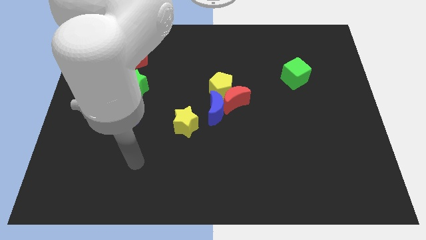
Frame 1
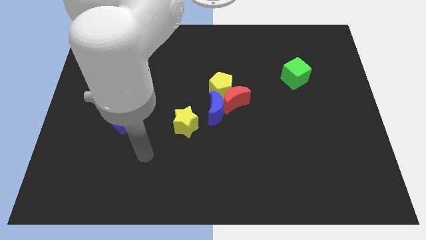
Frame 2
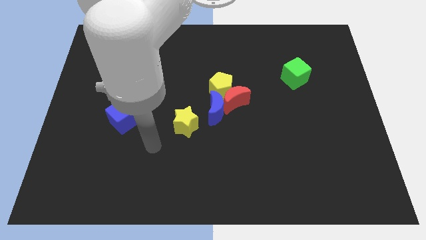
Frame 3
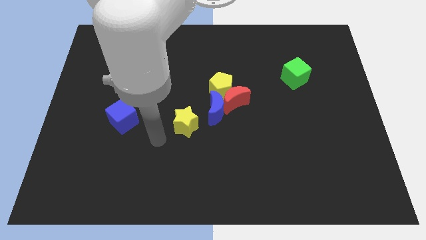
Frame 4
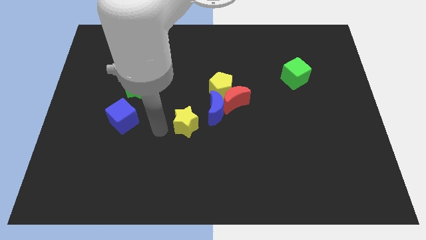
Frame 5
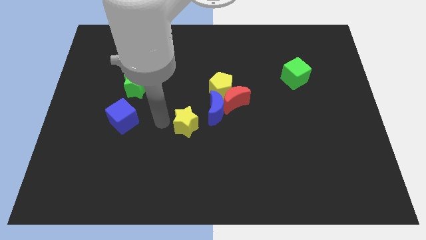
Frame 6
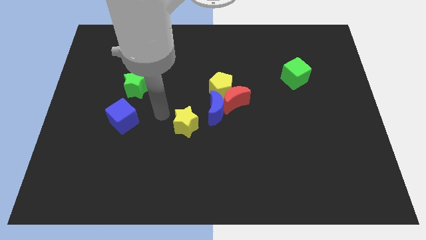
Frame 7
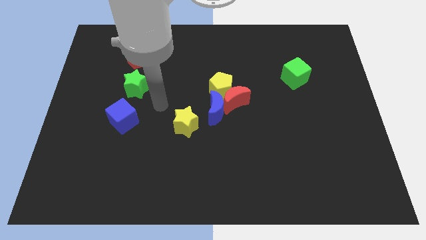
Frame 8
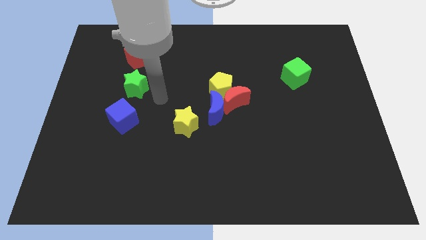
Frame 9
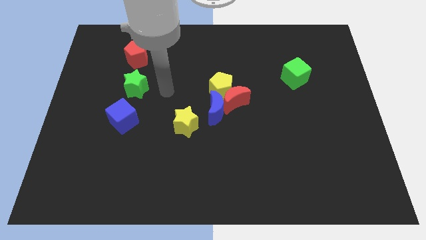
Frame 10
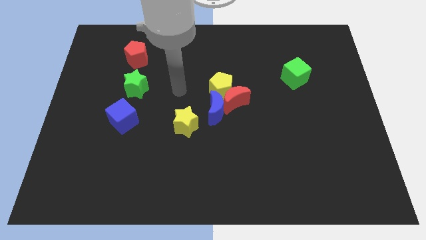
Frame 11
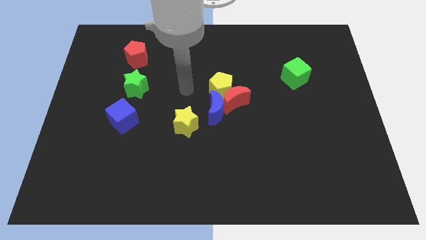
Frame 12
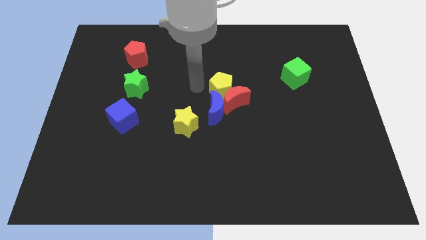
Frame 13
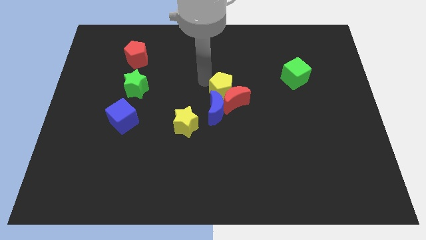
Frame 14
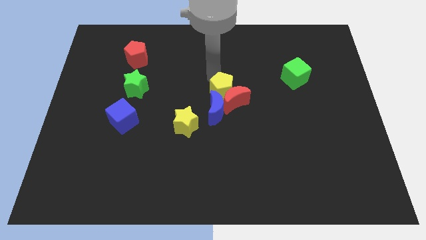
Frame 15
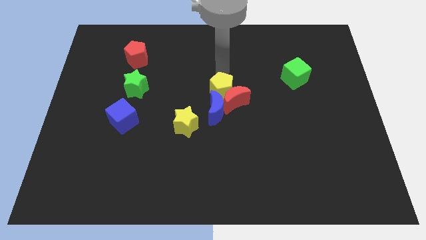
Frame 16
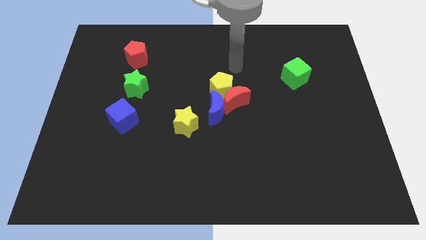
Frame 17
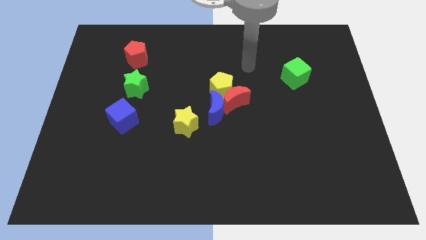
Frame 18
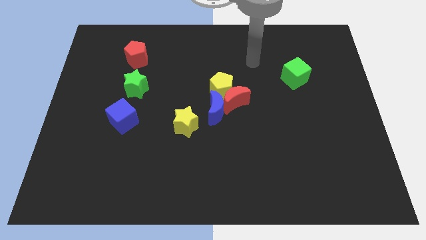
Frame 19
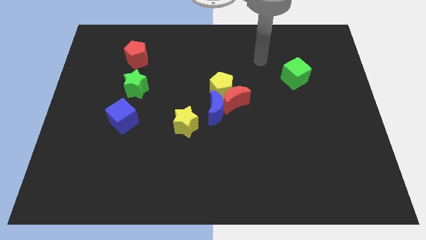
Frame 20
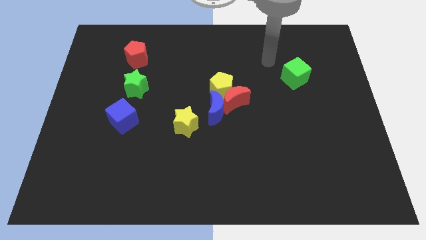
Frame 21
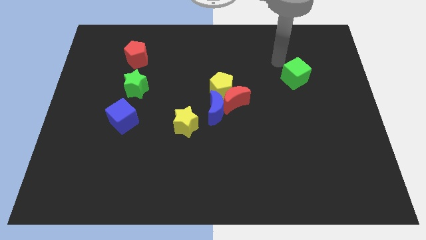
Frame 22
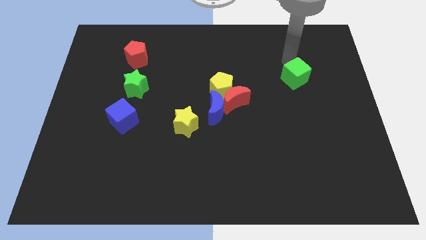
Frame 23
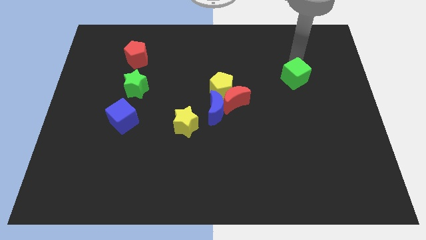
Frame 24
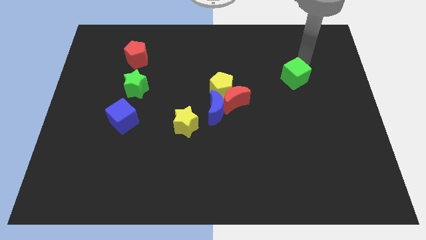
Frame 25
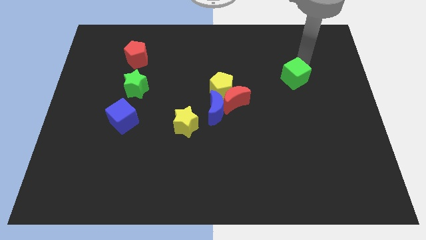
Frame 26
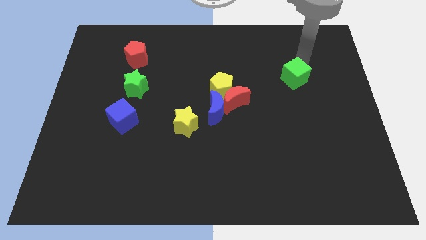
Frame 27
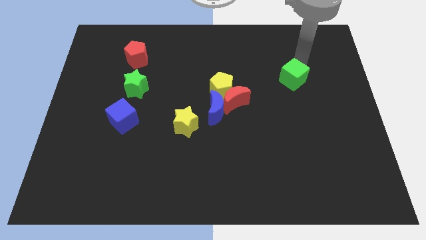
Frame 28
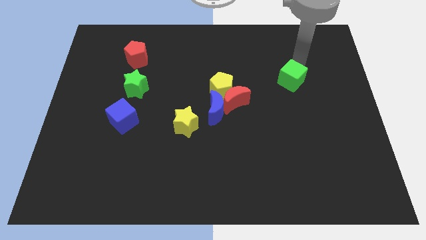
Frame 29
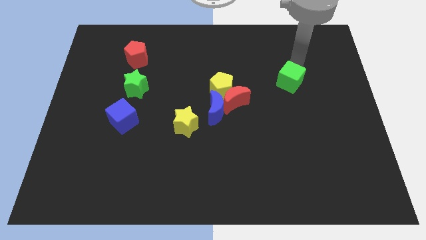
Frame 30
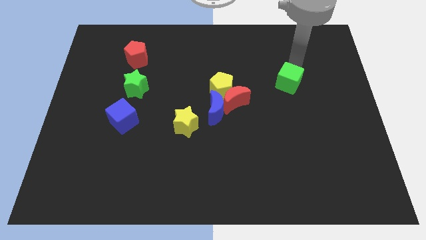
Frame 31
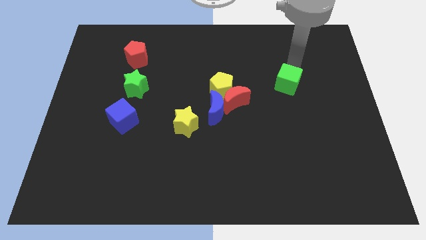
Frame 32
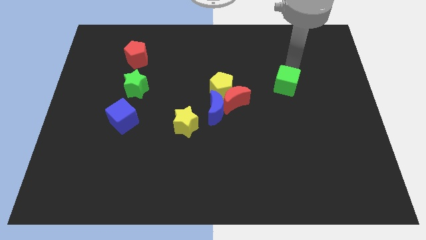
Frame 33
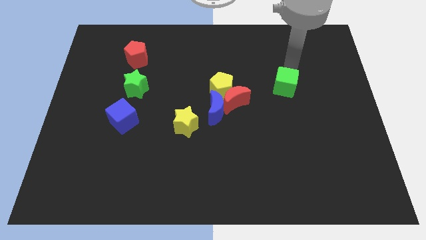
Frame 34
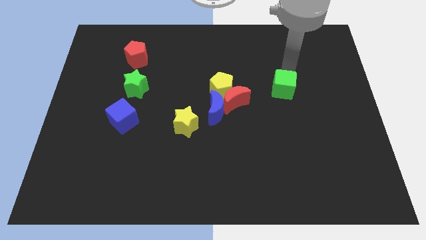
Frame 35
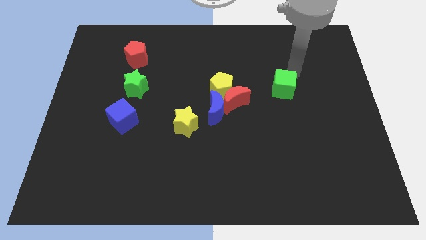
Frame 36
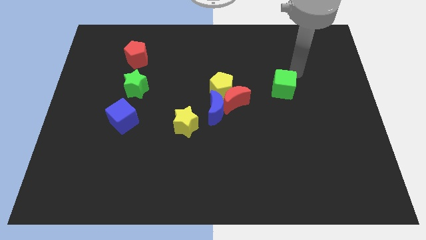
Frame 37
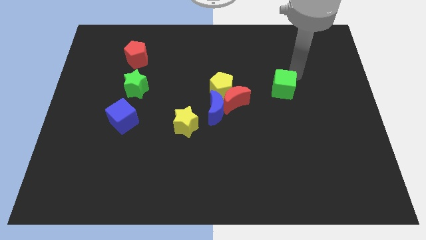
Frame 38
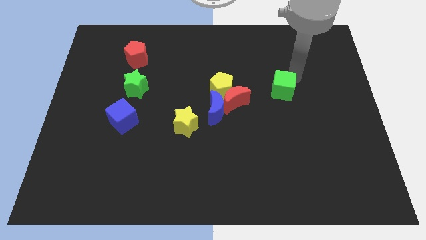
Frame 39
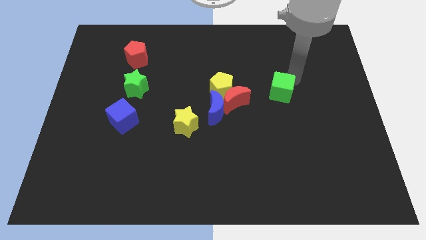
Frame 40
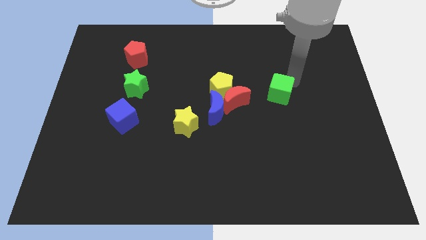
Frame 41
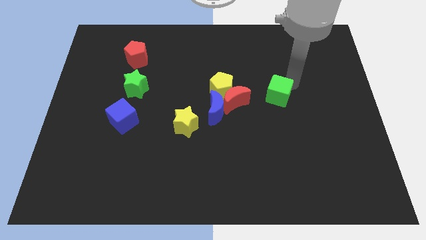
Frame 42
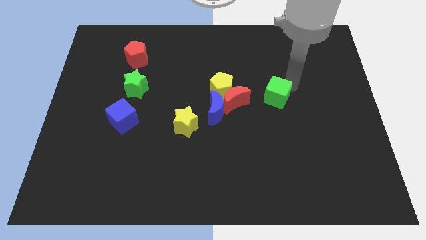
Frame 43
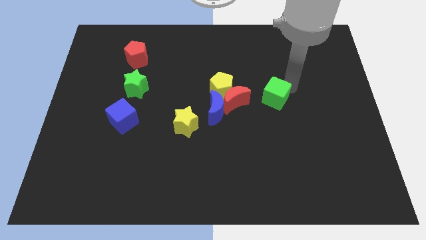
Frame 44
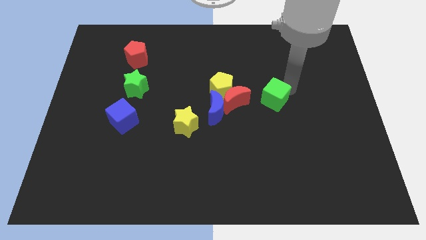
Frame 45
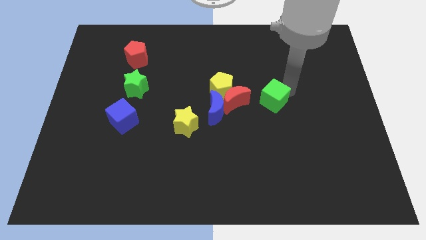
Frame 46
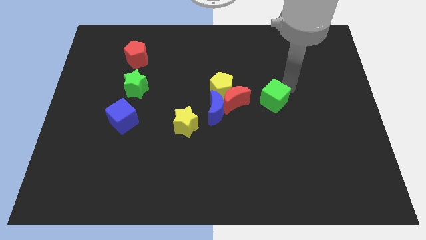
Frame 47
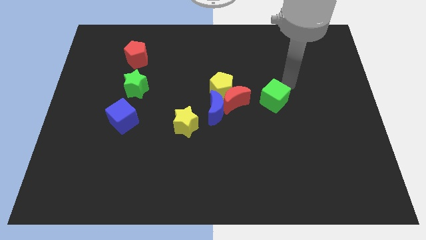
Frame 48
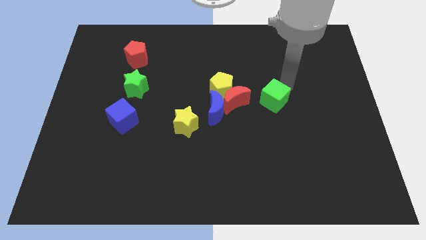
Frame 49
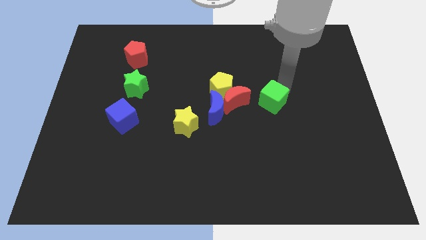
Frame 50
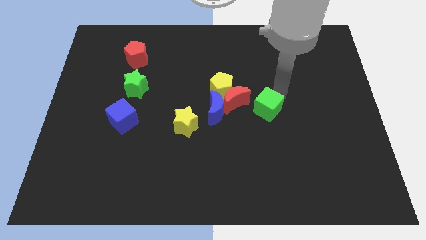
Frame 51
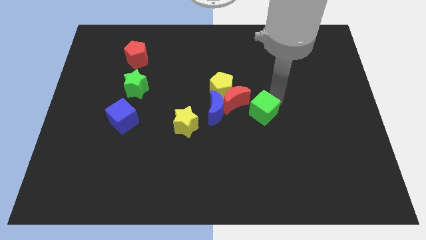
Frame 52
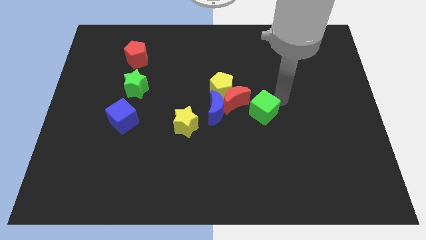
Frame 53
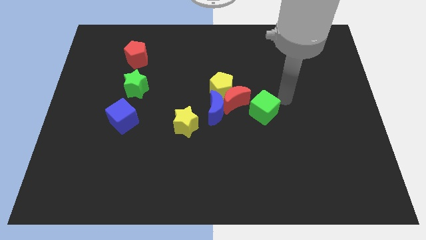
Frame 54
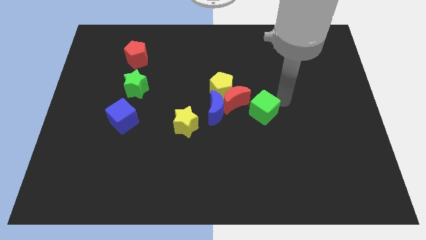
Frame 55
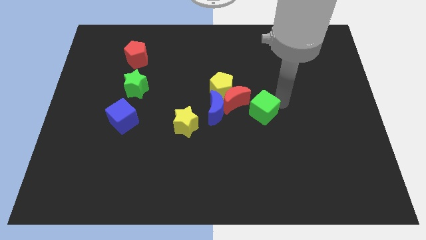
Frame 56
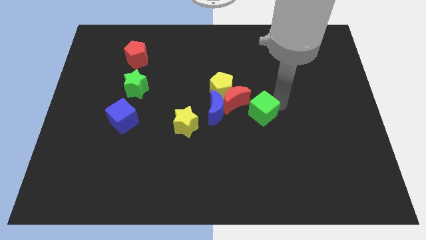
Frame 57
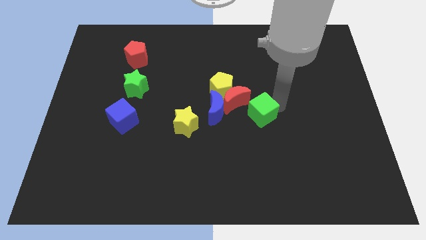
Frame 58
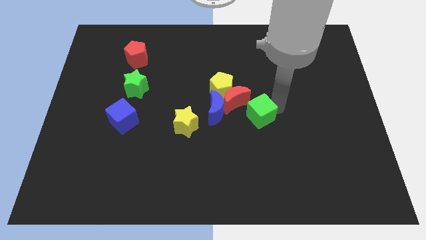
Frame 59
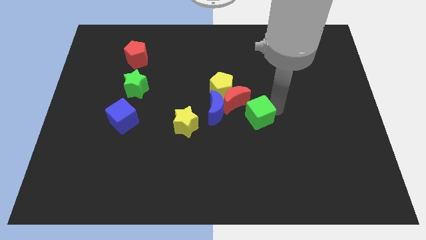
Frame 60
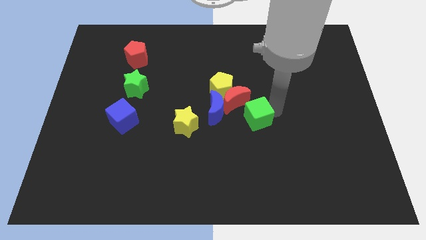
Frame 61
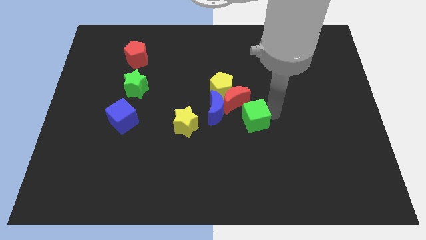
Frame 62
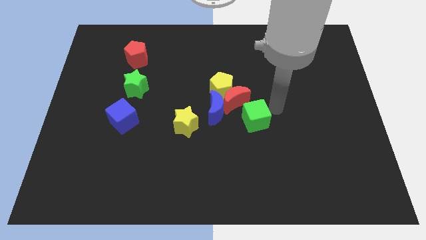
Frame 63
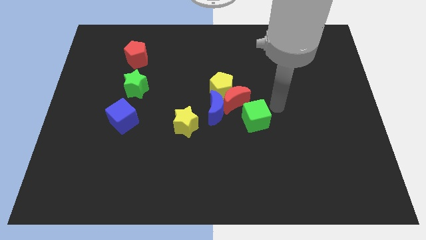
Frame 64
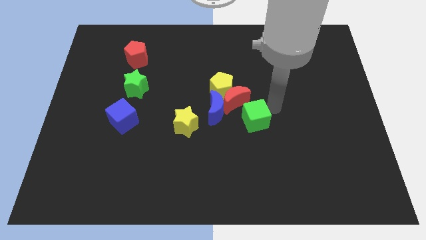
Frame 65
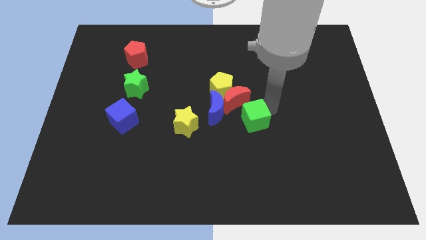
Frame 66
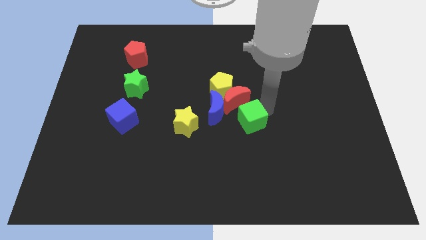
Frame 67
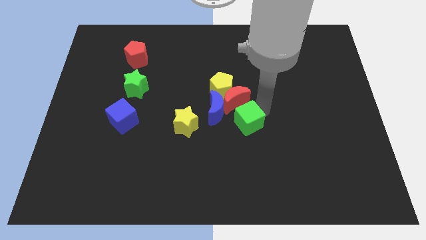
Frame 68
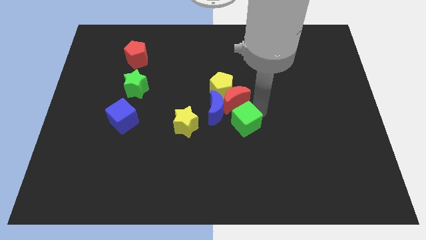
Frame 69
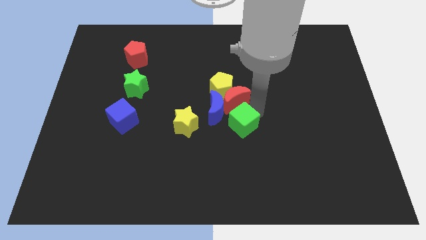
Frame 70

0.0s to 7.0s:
push the green cube downwards and then left

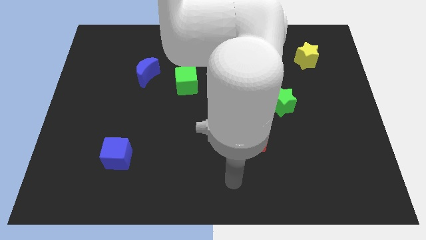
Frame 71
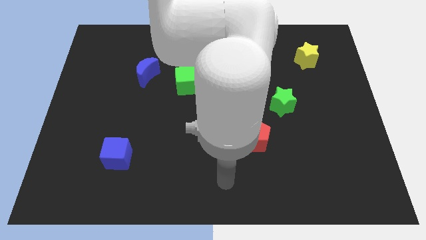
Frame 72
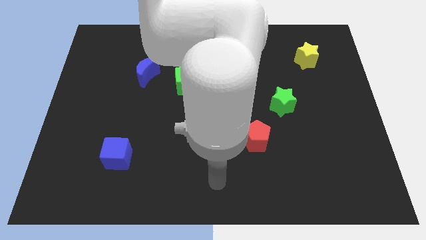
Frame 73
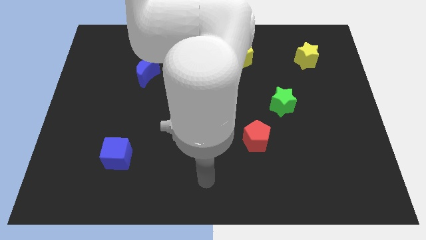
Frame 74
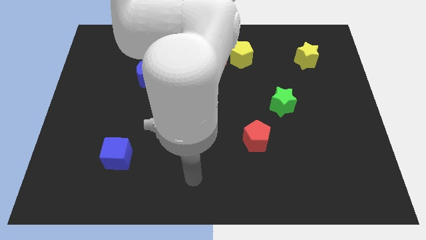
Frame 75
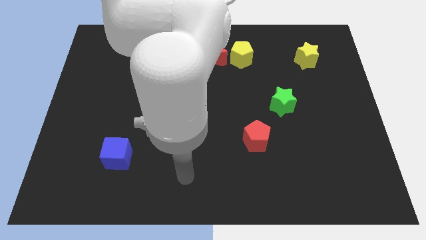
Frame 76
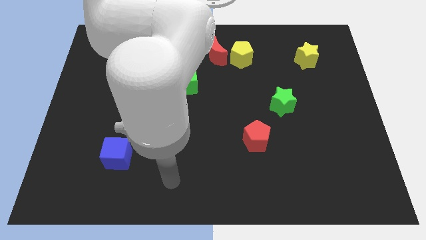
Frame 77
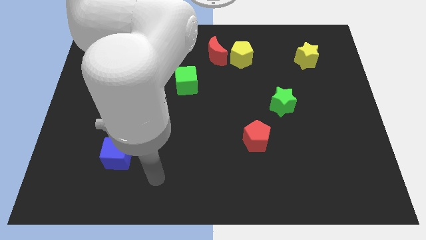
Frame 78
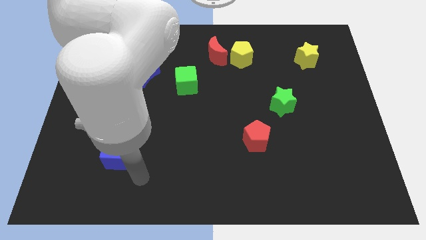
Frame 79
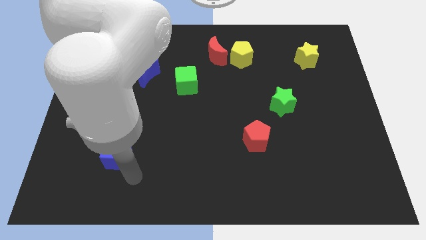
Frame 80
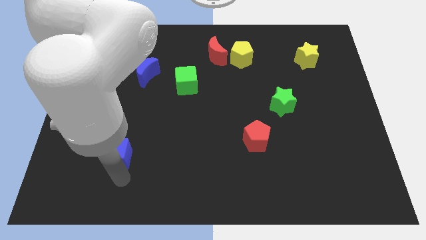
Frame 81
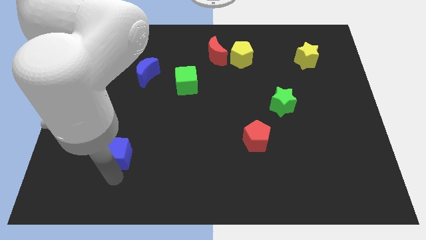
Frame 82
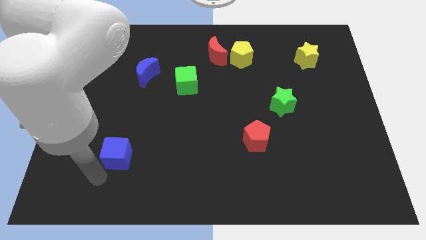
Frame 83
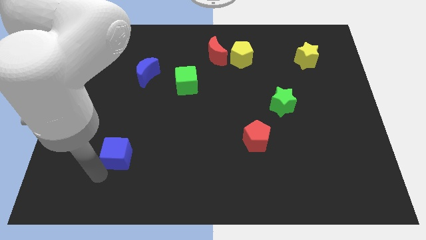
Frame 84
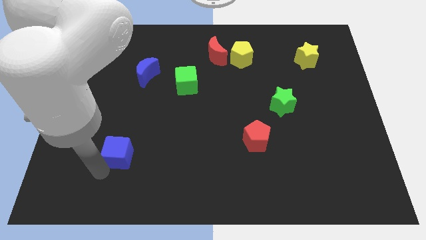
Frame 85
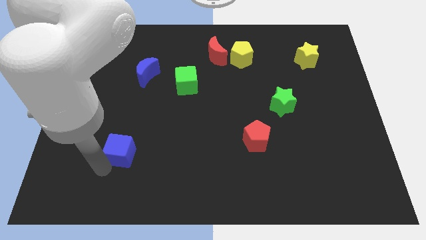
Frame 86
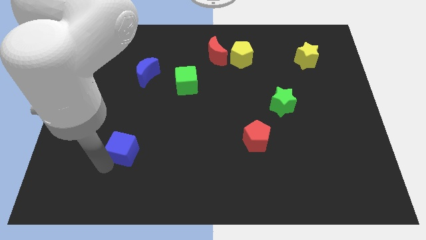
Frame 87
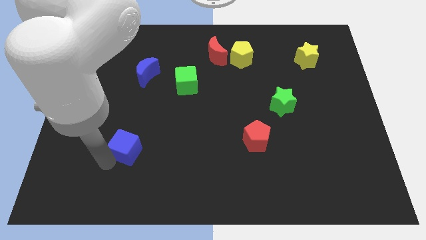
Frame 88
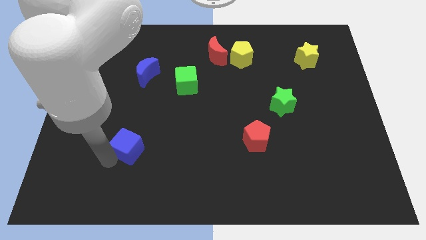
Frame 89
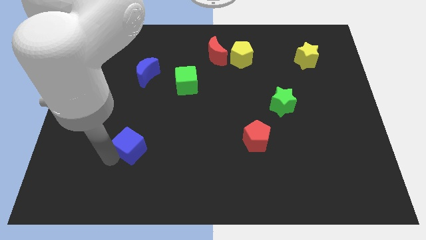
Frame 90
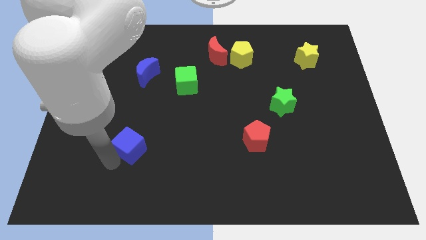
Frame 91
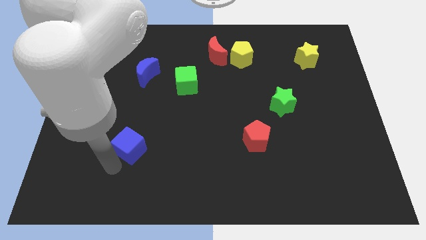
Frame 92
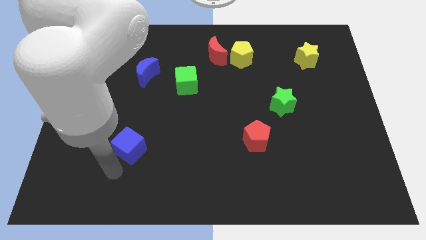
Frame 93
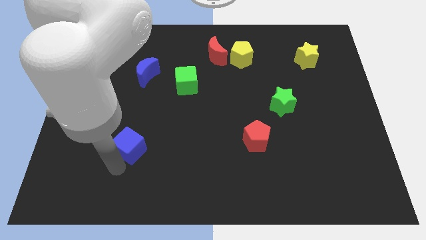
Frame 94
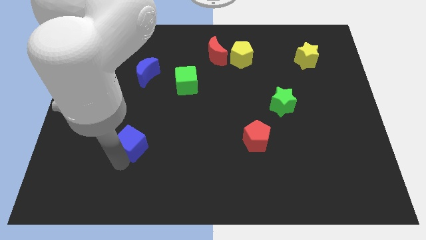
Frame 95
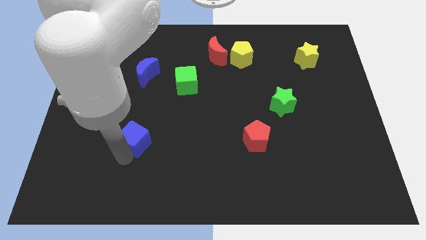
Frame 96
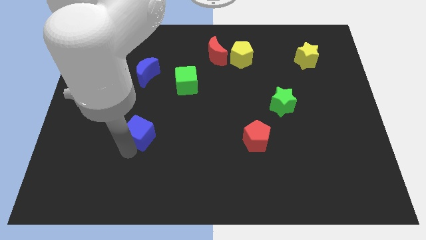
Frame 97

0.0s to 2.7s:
slightly slide the blue cube upwards and then to the right
